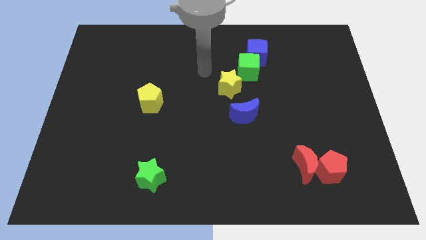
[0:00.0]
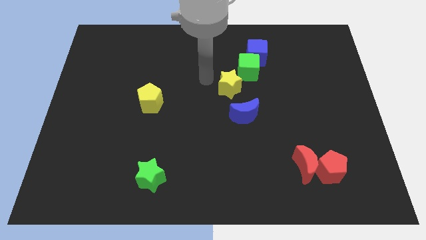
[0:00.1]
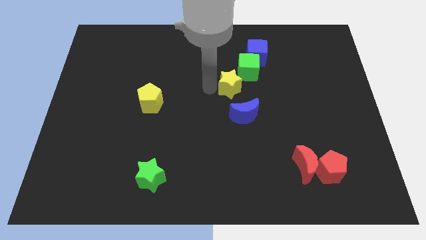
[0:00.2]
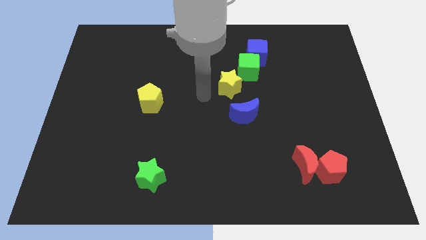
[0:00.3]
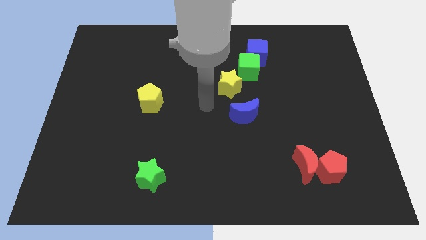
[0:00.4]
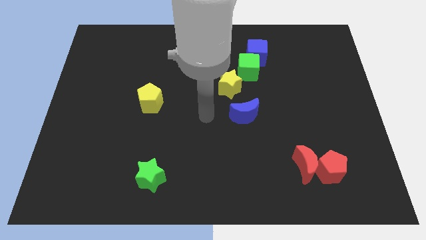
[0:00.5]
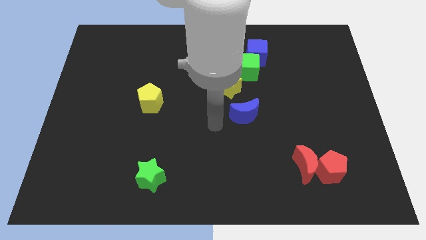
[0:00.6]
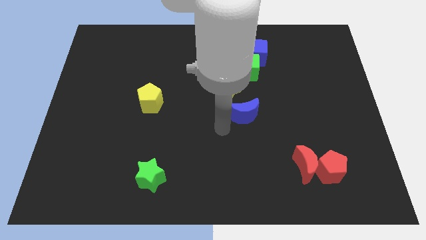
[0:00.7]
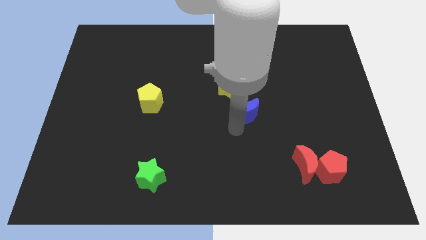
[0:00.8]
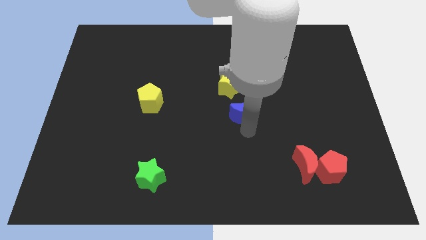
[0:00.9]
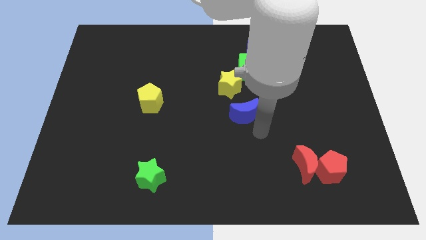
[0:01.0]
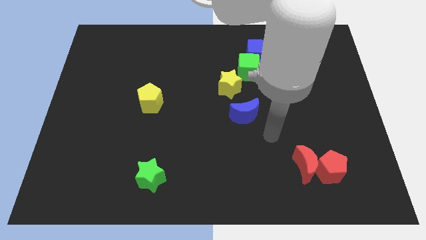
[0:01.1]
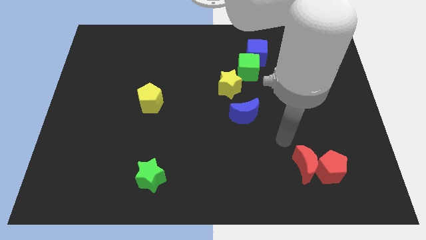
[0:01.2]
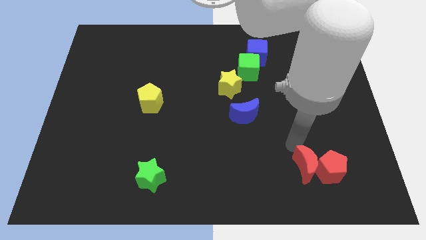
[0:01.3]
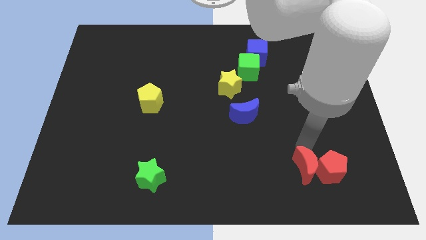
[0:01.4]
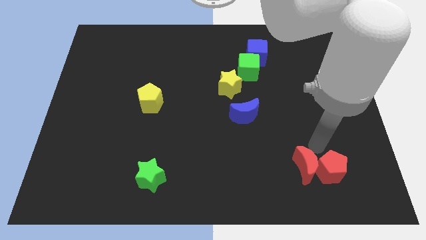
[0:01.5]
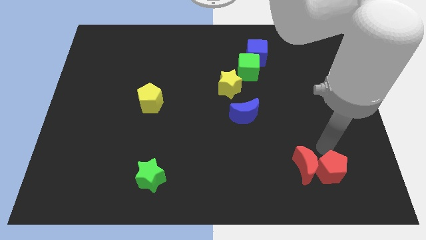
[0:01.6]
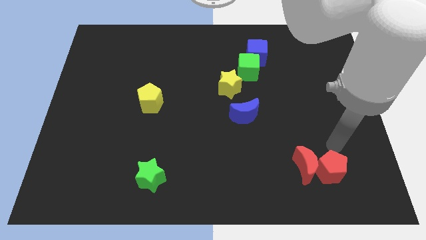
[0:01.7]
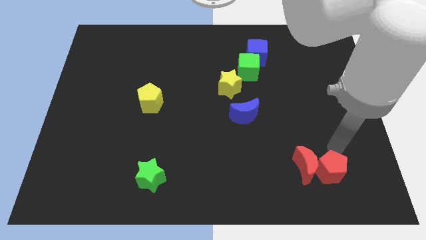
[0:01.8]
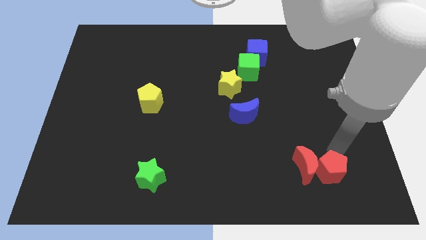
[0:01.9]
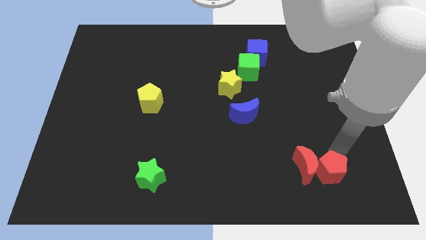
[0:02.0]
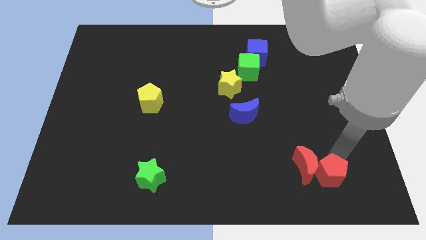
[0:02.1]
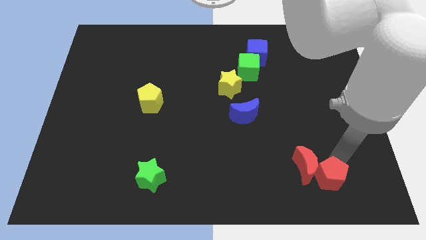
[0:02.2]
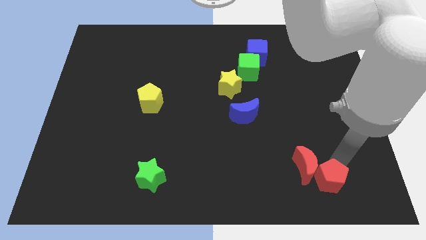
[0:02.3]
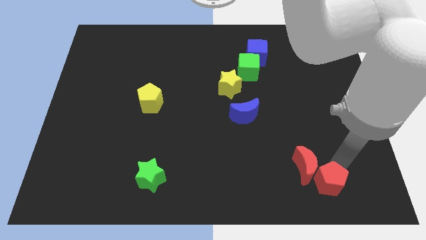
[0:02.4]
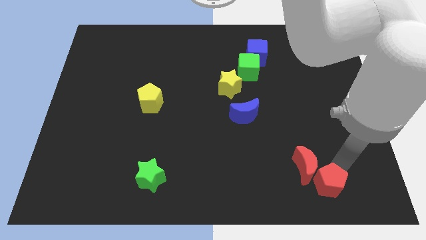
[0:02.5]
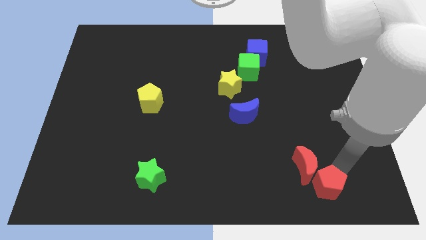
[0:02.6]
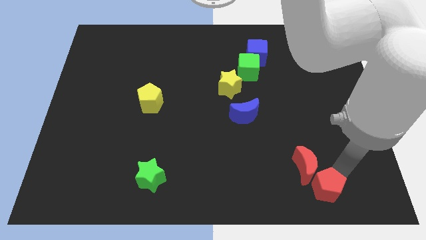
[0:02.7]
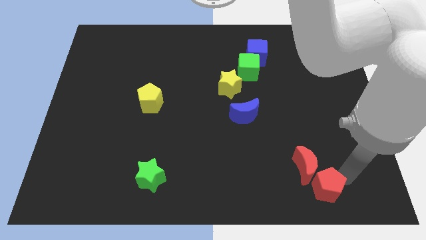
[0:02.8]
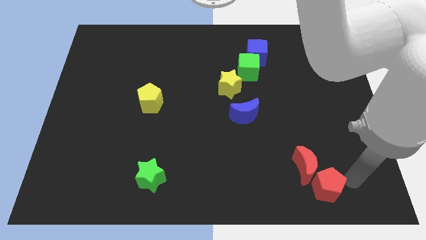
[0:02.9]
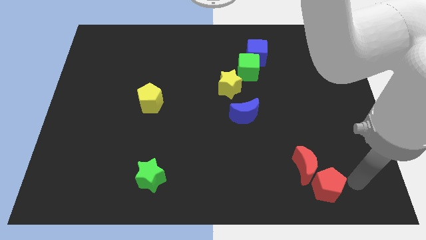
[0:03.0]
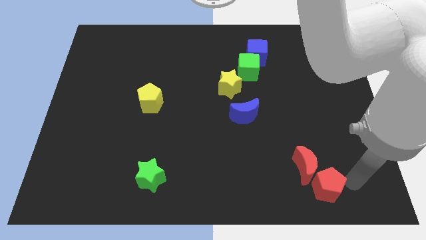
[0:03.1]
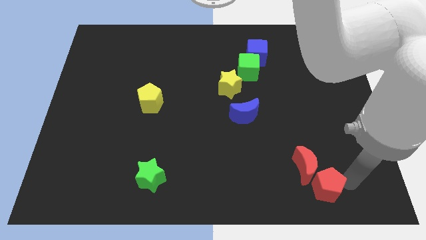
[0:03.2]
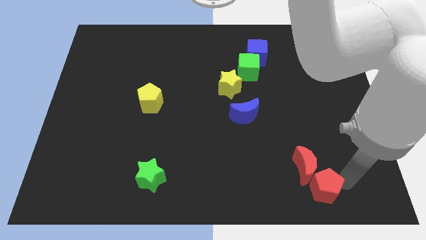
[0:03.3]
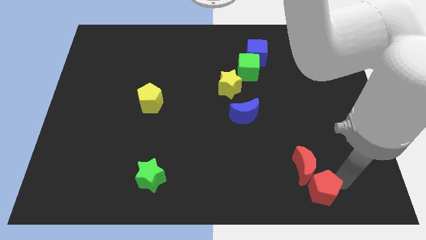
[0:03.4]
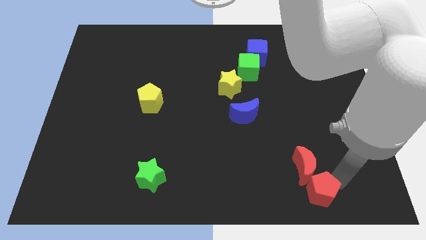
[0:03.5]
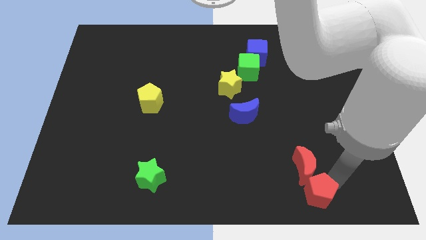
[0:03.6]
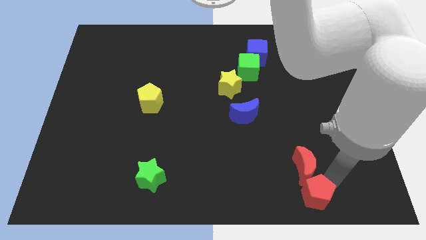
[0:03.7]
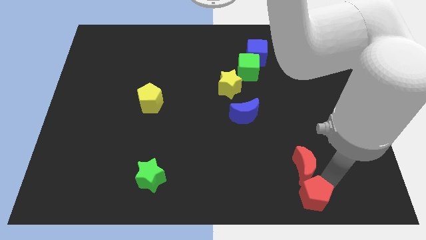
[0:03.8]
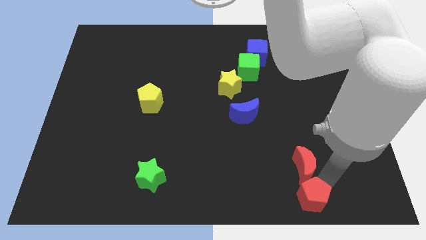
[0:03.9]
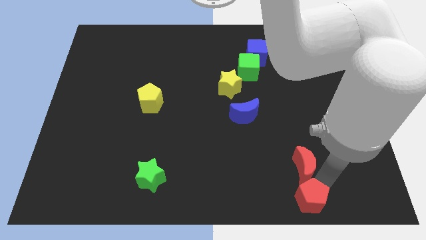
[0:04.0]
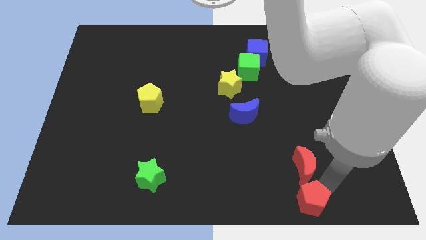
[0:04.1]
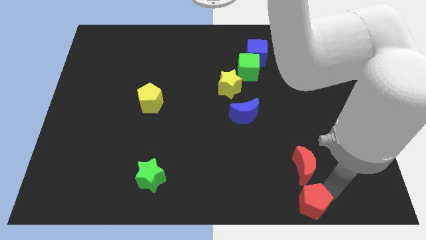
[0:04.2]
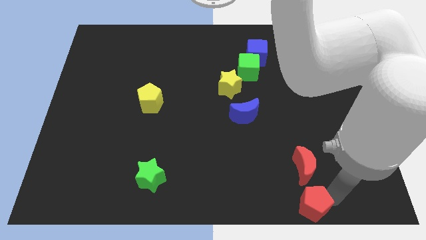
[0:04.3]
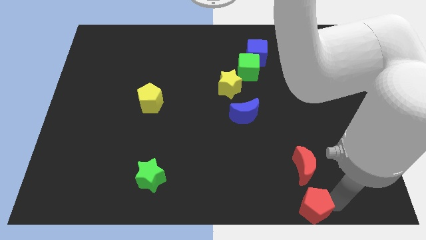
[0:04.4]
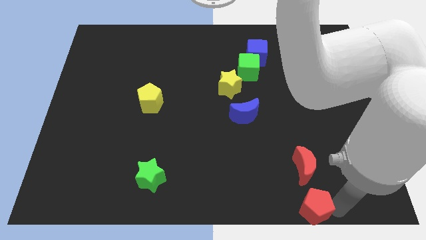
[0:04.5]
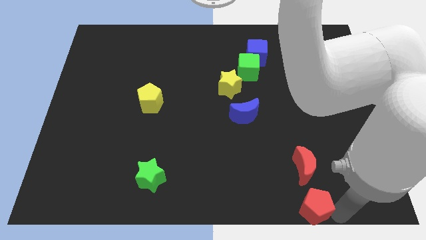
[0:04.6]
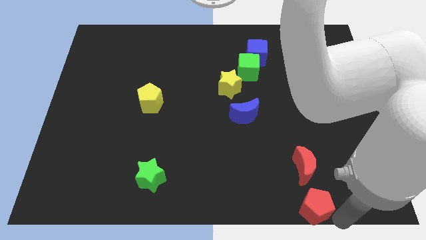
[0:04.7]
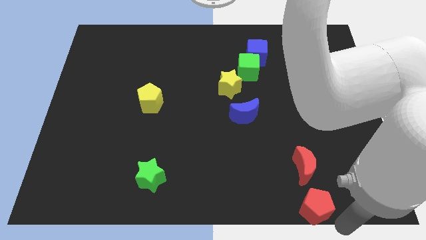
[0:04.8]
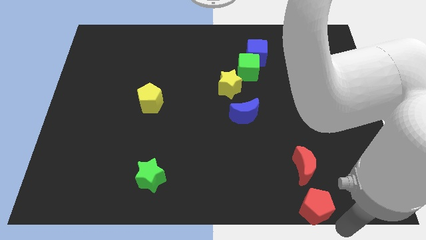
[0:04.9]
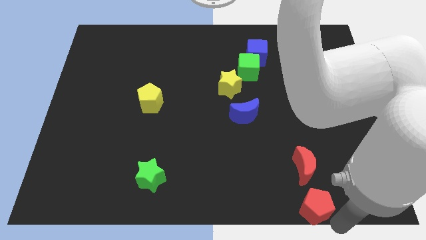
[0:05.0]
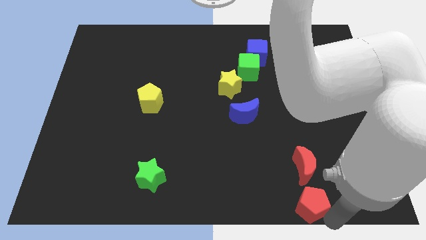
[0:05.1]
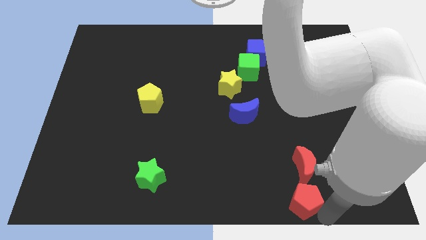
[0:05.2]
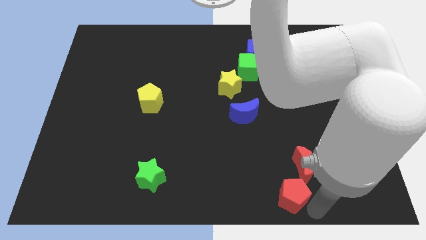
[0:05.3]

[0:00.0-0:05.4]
push the red pentagon to the left somewhat

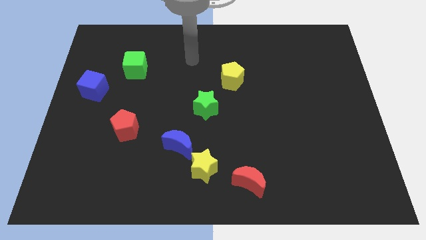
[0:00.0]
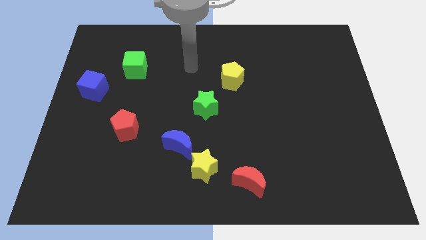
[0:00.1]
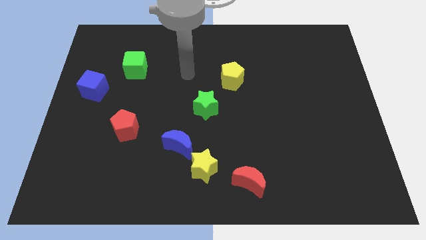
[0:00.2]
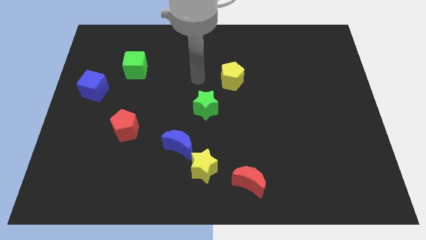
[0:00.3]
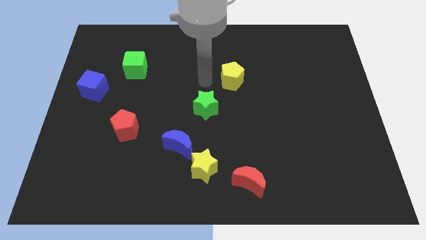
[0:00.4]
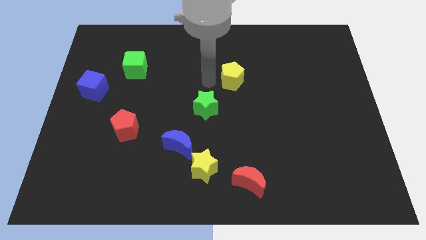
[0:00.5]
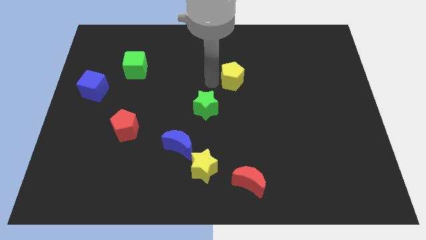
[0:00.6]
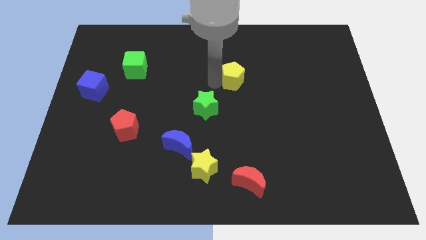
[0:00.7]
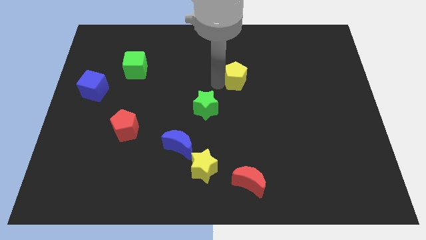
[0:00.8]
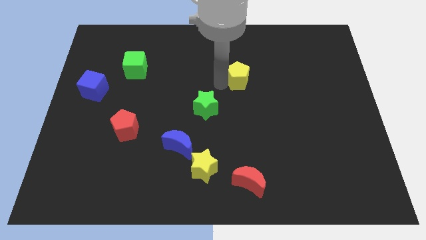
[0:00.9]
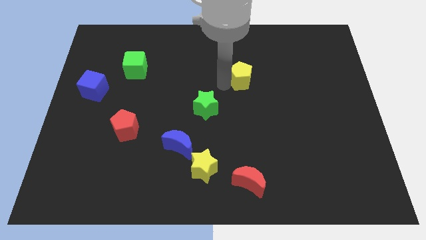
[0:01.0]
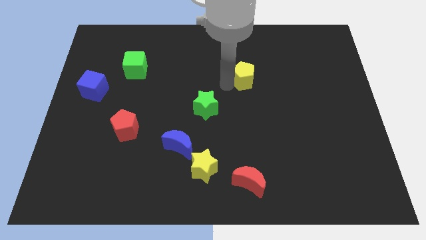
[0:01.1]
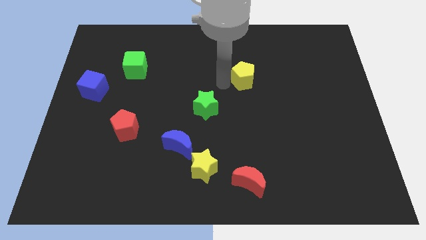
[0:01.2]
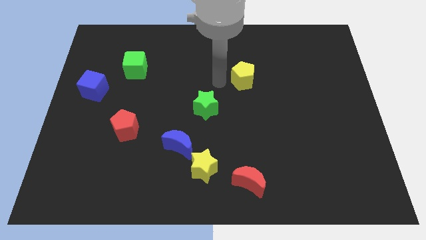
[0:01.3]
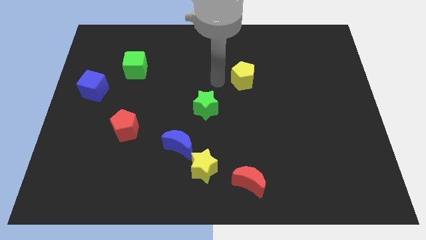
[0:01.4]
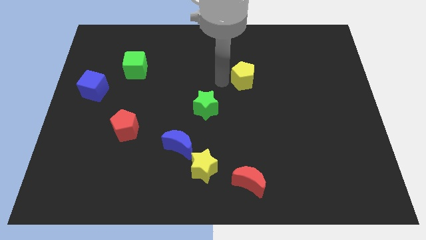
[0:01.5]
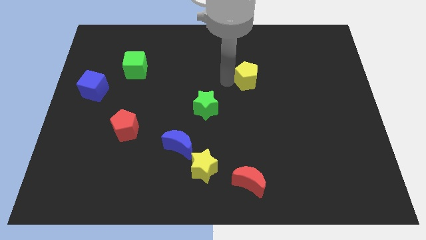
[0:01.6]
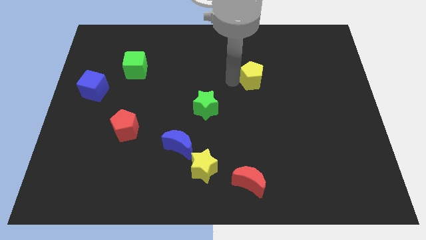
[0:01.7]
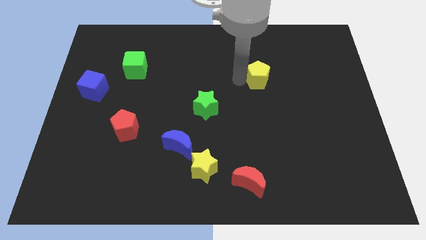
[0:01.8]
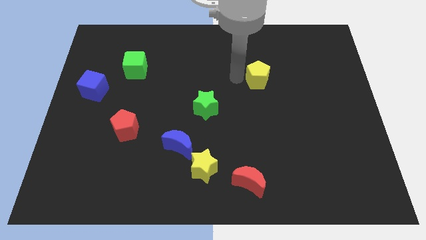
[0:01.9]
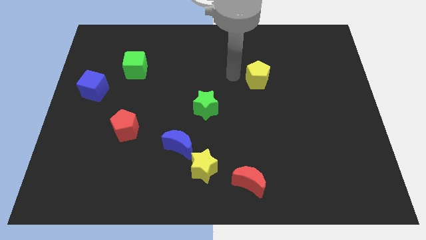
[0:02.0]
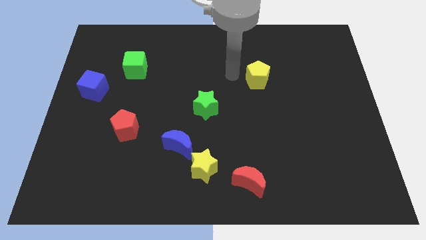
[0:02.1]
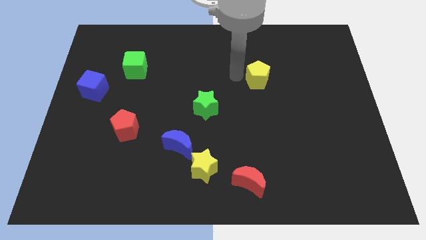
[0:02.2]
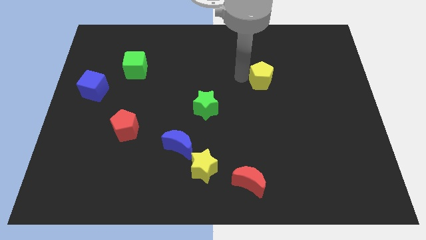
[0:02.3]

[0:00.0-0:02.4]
move the yellow pentagon right somewhat

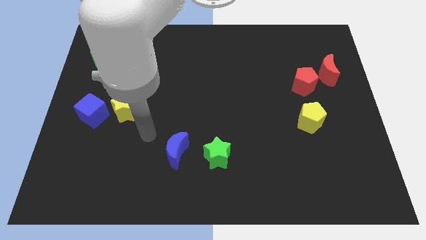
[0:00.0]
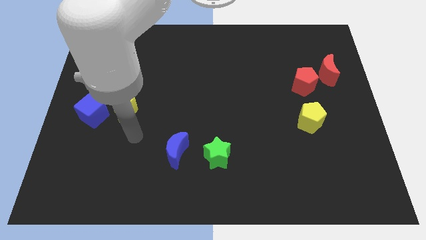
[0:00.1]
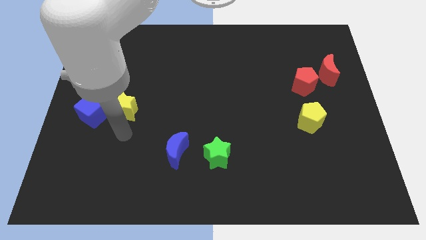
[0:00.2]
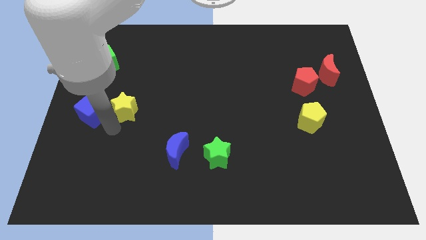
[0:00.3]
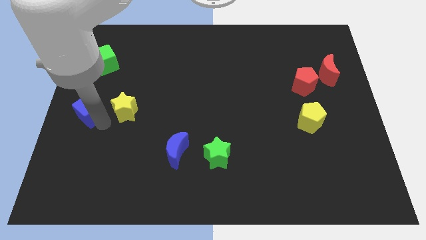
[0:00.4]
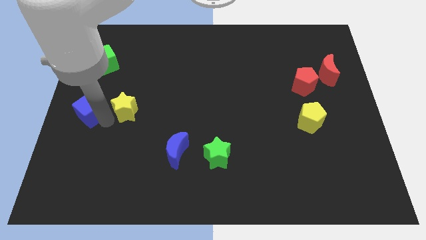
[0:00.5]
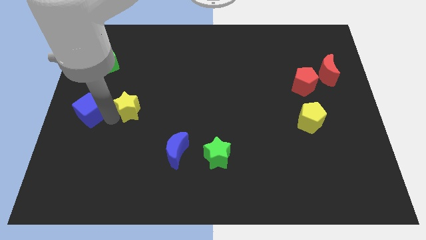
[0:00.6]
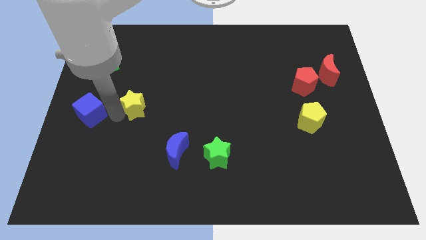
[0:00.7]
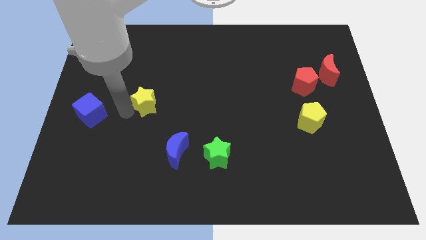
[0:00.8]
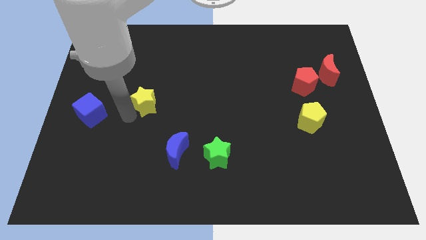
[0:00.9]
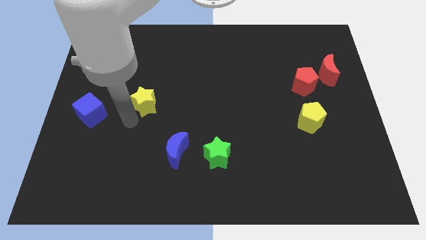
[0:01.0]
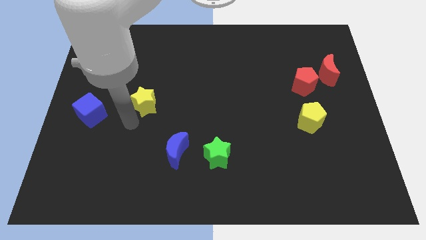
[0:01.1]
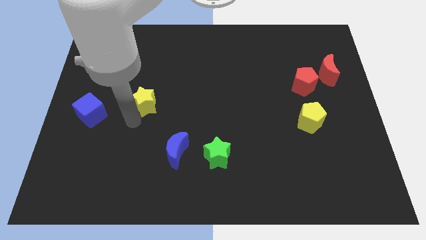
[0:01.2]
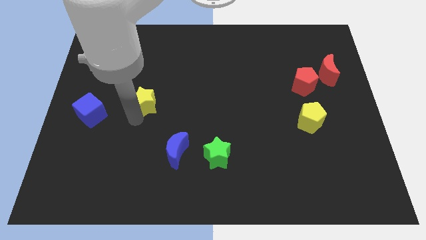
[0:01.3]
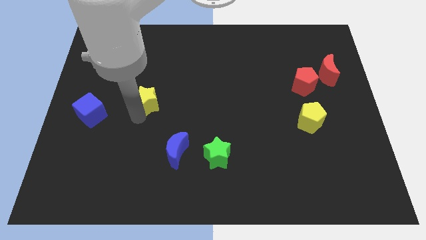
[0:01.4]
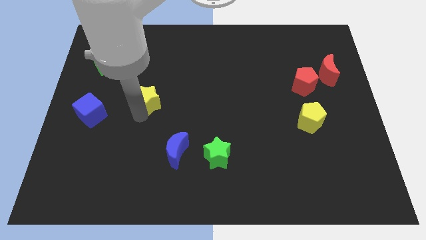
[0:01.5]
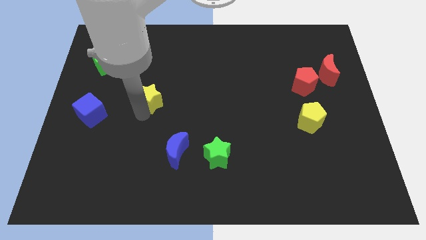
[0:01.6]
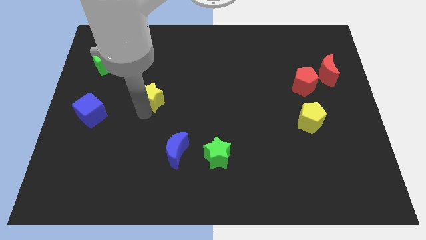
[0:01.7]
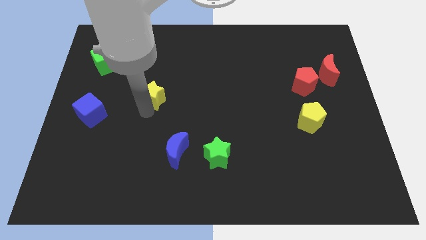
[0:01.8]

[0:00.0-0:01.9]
push the yellow star somewhat up and to the right
